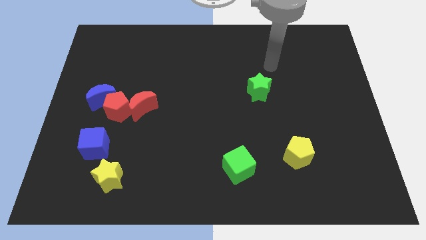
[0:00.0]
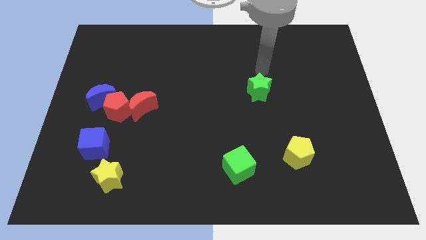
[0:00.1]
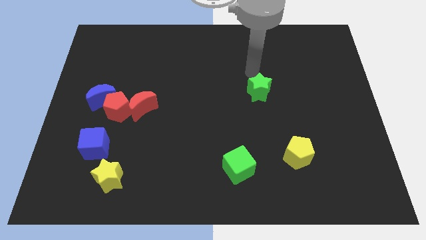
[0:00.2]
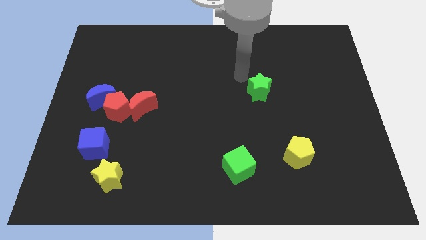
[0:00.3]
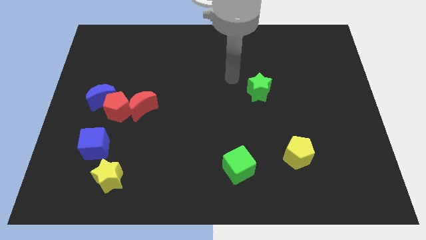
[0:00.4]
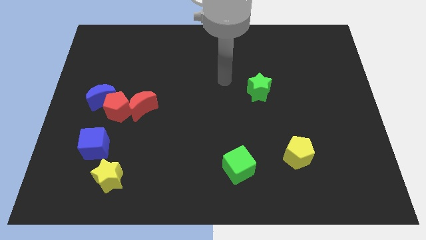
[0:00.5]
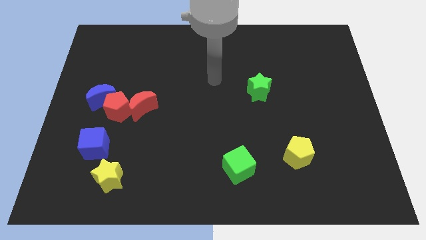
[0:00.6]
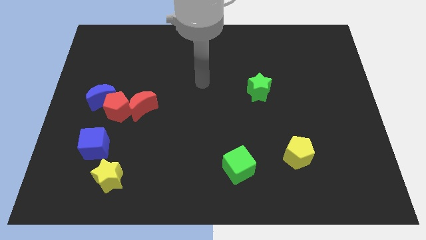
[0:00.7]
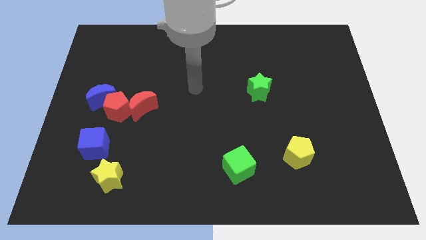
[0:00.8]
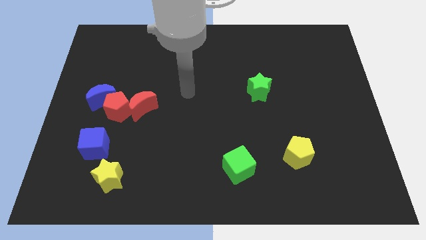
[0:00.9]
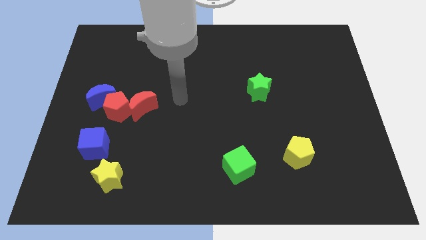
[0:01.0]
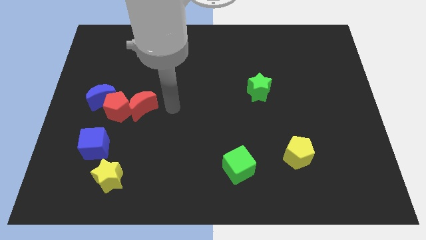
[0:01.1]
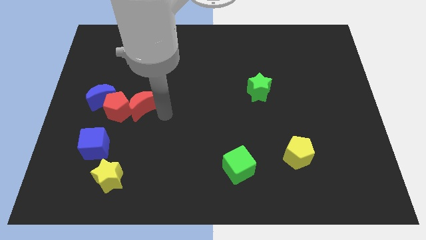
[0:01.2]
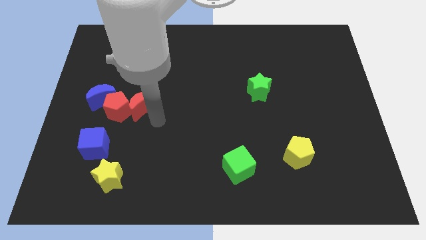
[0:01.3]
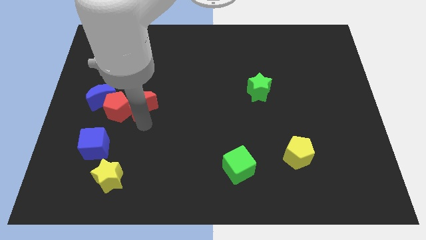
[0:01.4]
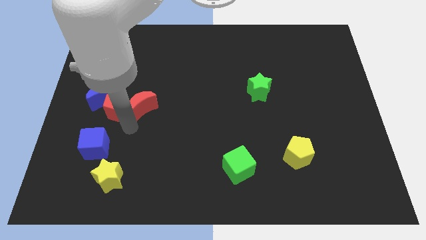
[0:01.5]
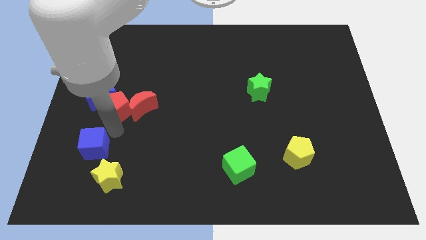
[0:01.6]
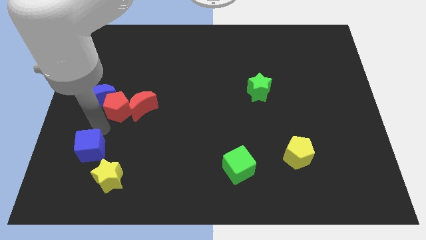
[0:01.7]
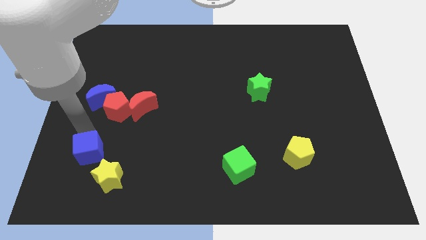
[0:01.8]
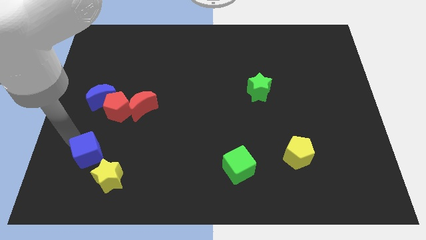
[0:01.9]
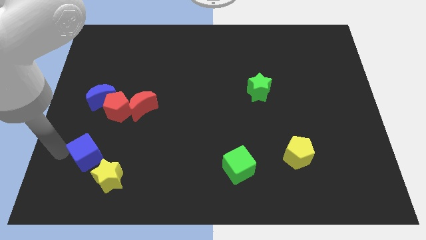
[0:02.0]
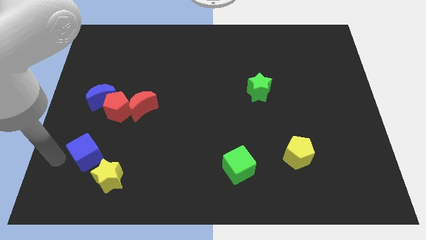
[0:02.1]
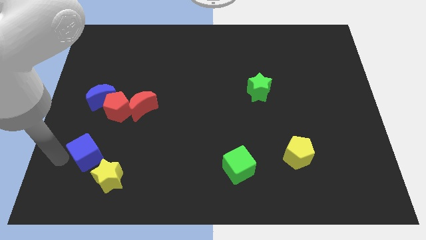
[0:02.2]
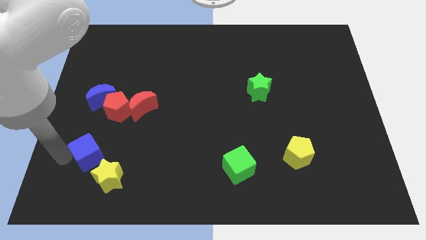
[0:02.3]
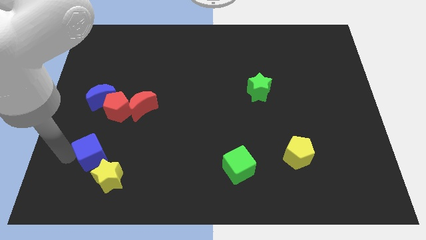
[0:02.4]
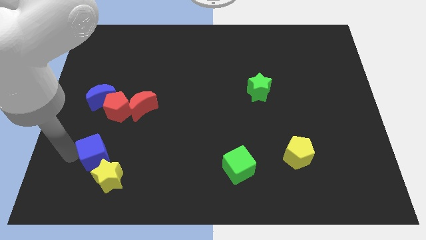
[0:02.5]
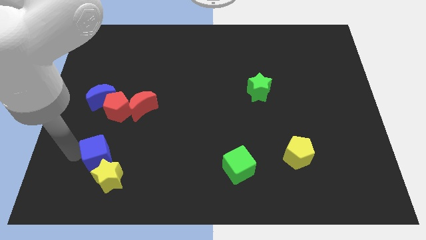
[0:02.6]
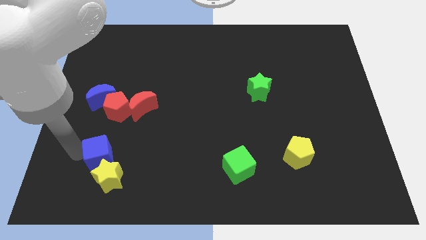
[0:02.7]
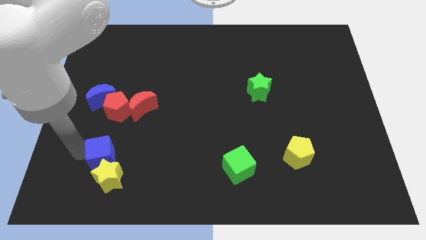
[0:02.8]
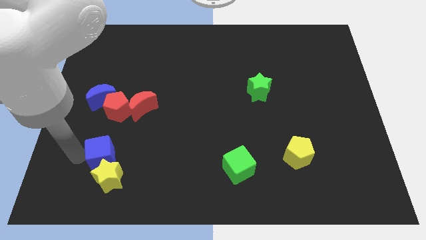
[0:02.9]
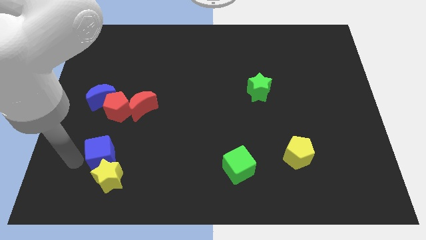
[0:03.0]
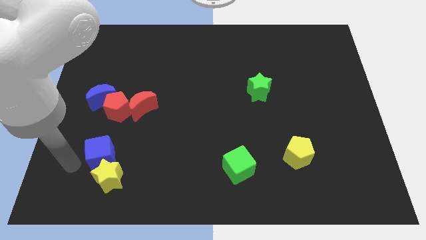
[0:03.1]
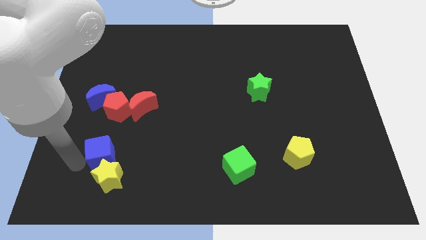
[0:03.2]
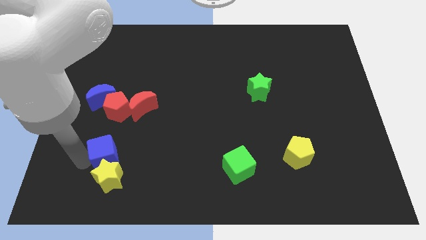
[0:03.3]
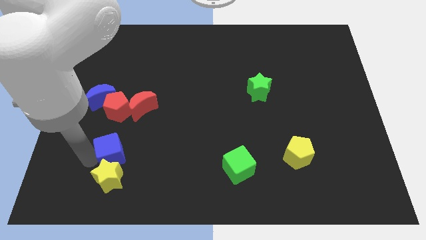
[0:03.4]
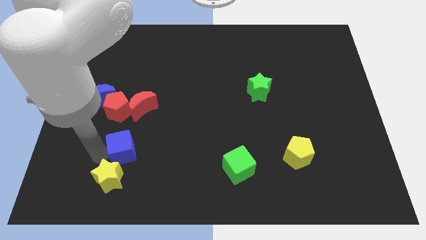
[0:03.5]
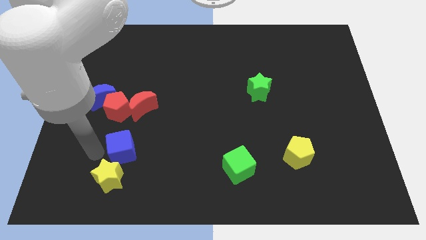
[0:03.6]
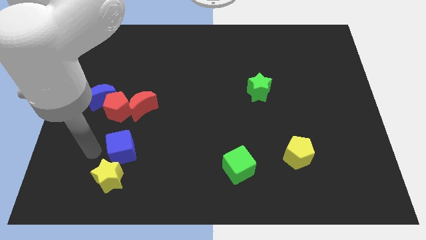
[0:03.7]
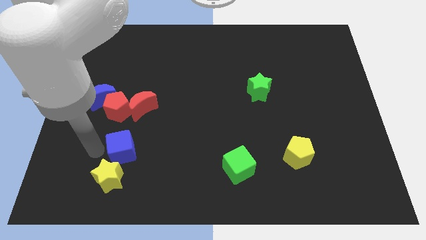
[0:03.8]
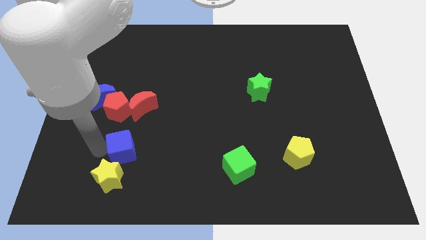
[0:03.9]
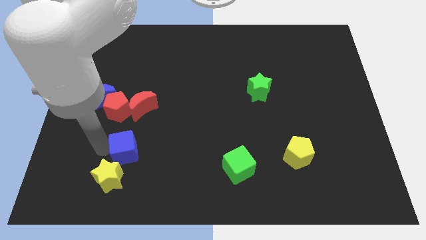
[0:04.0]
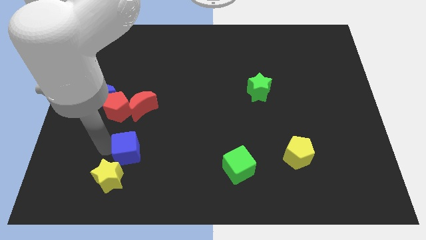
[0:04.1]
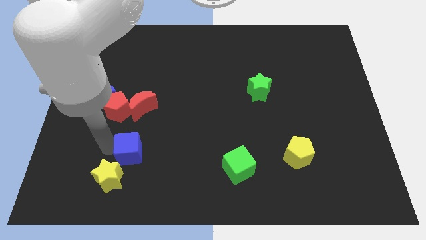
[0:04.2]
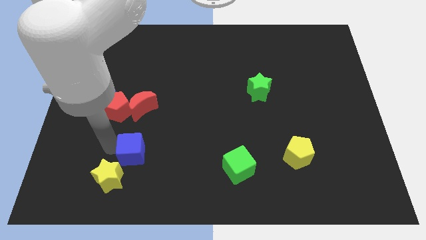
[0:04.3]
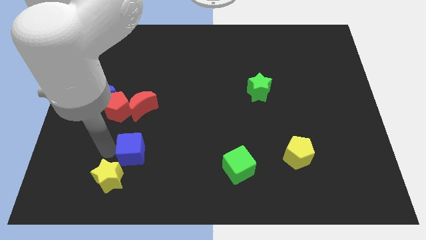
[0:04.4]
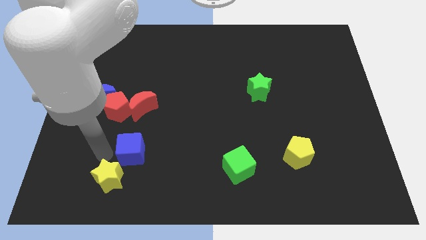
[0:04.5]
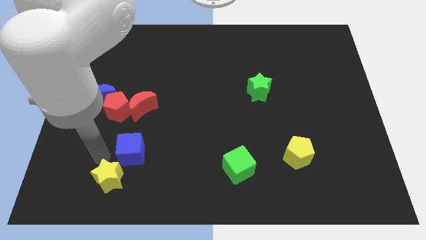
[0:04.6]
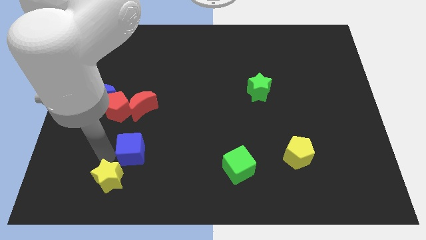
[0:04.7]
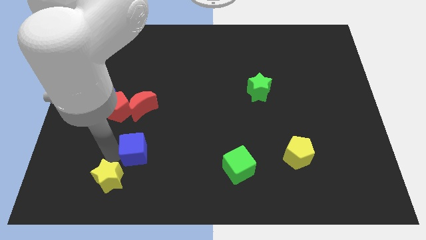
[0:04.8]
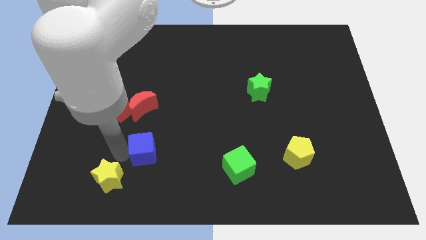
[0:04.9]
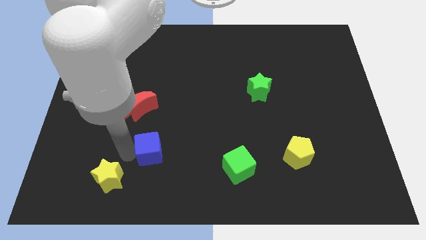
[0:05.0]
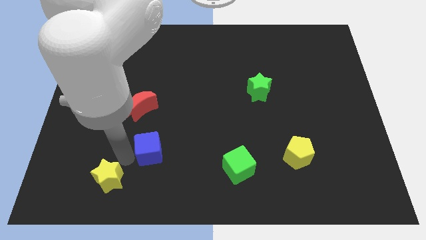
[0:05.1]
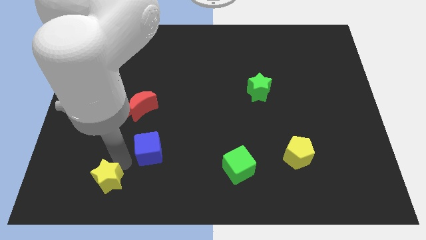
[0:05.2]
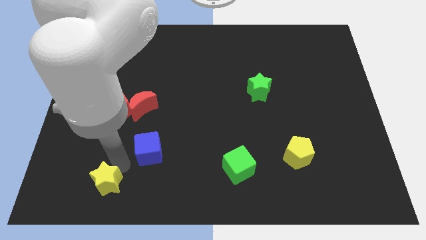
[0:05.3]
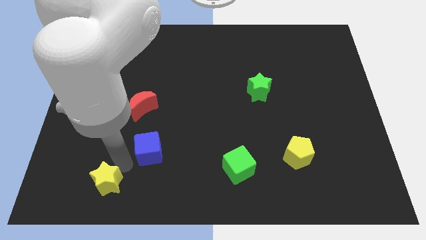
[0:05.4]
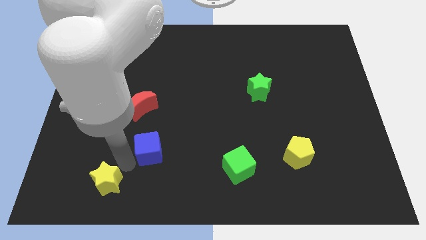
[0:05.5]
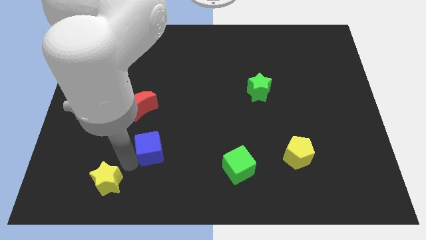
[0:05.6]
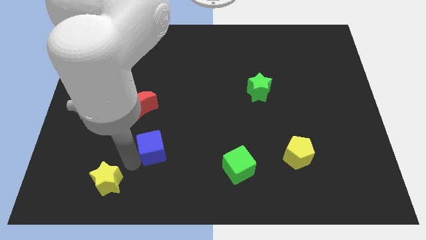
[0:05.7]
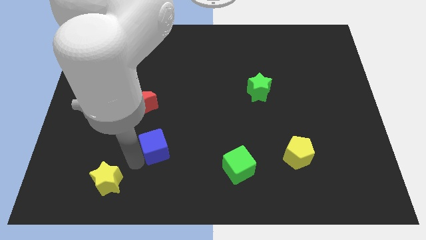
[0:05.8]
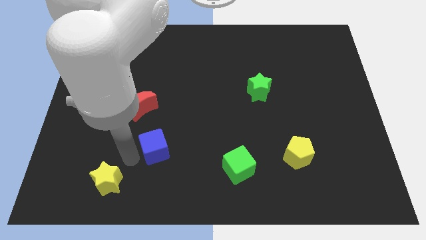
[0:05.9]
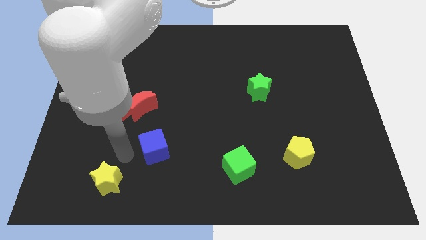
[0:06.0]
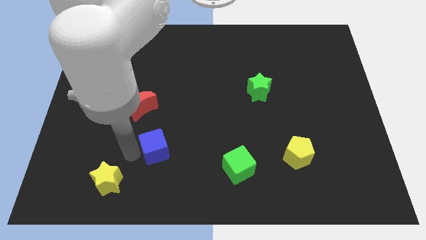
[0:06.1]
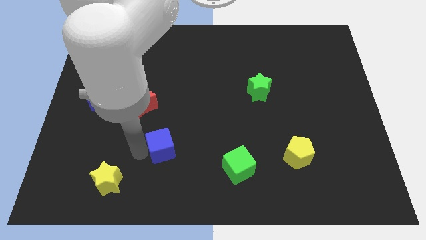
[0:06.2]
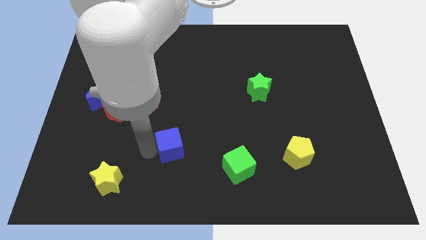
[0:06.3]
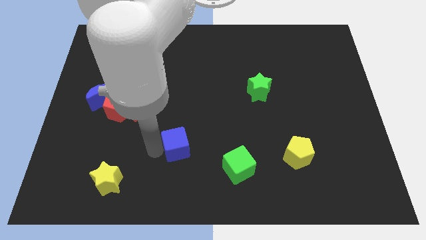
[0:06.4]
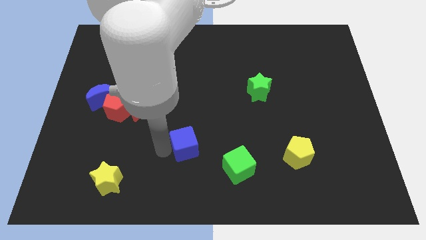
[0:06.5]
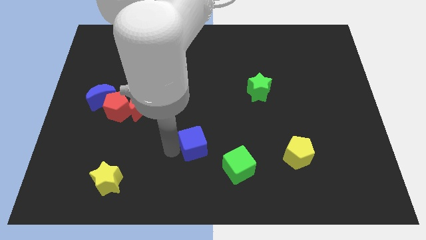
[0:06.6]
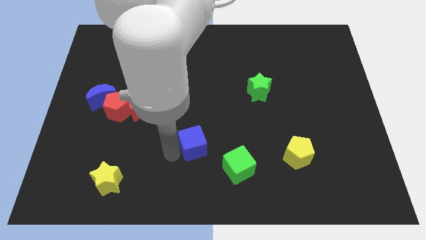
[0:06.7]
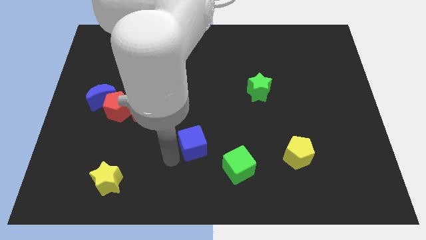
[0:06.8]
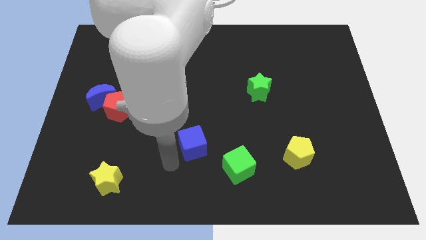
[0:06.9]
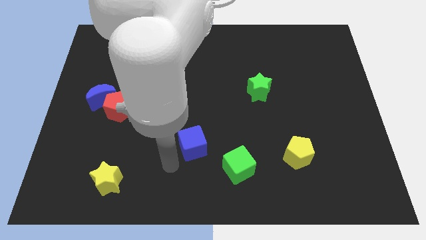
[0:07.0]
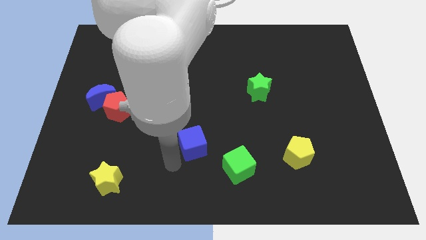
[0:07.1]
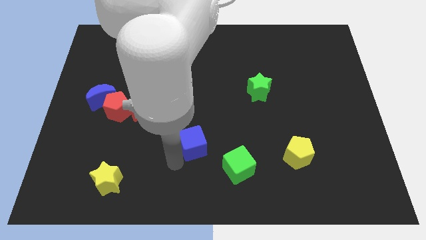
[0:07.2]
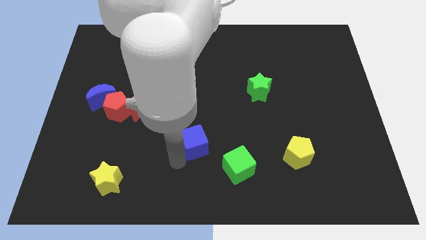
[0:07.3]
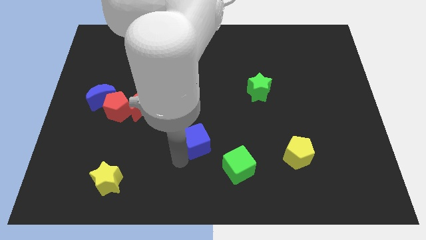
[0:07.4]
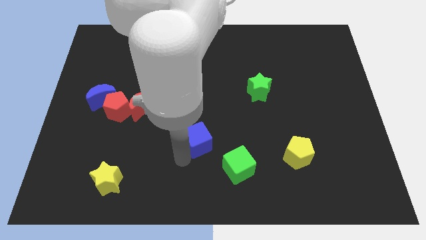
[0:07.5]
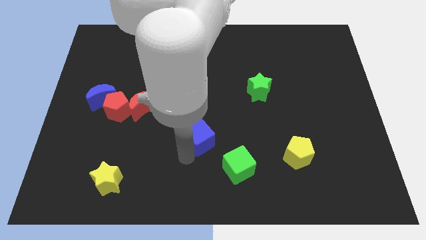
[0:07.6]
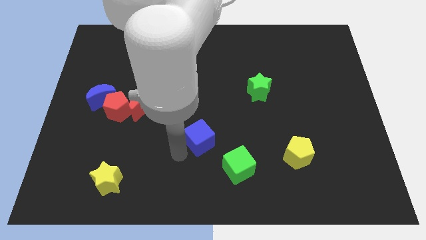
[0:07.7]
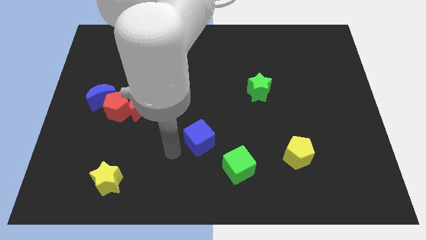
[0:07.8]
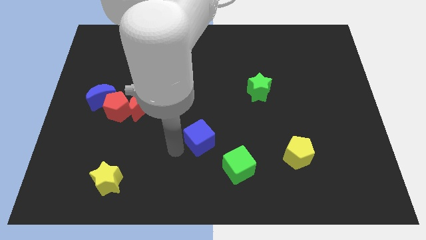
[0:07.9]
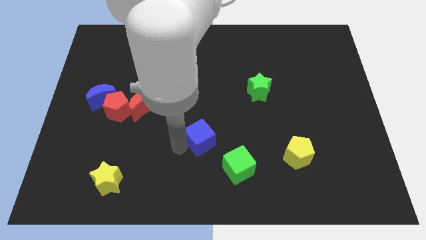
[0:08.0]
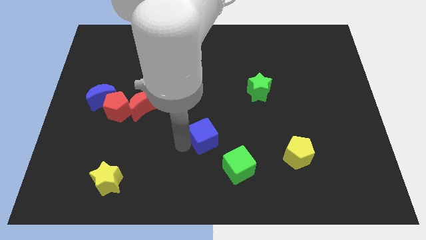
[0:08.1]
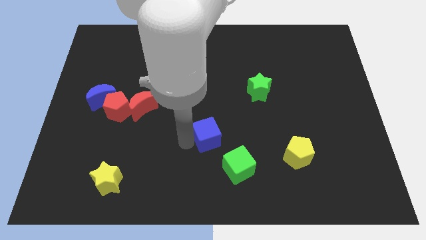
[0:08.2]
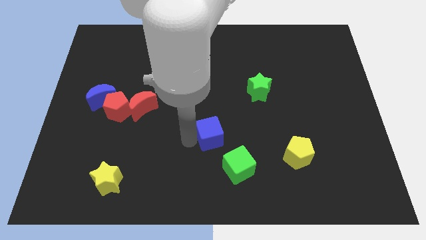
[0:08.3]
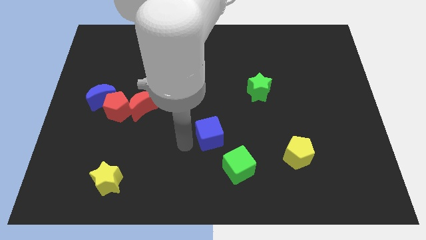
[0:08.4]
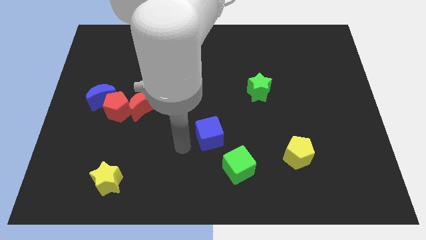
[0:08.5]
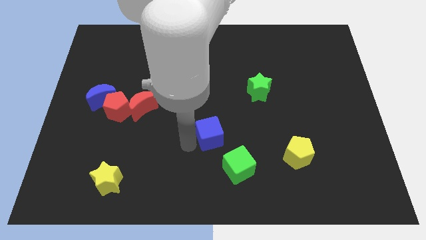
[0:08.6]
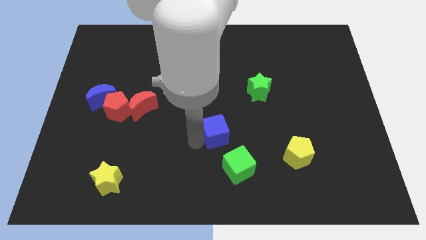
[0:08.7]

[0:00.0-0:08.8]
put the blue cube above the green cube
